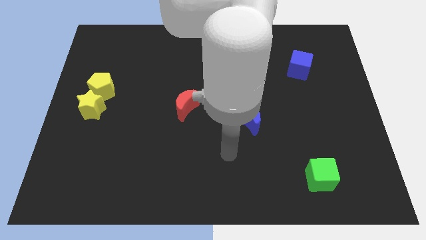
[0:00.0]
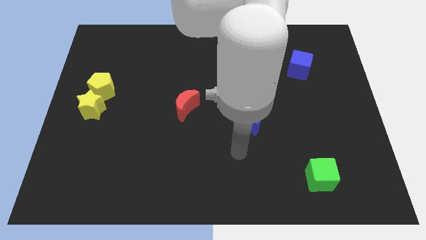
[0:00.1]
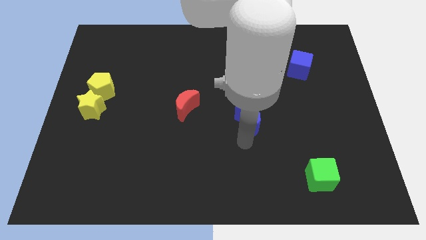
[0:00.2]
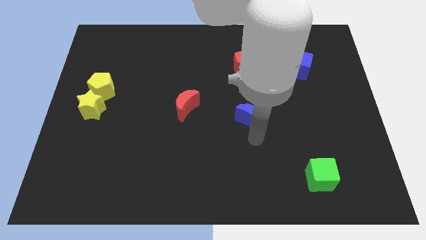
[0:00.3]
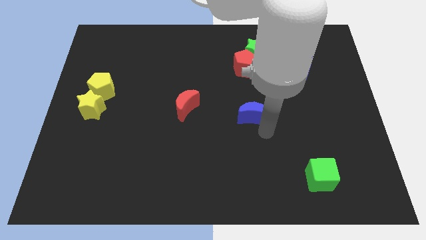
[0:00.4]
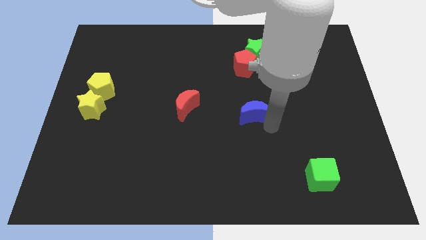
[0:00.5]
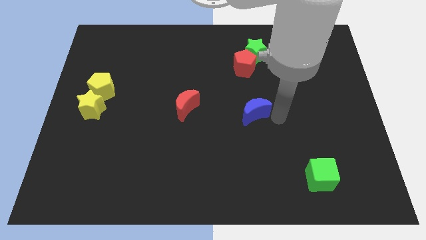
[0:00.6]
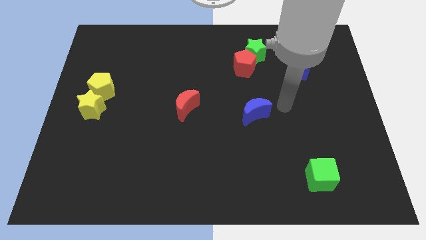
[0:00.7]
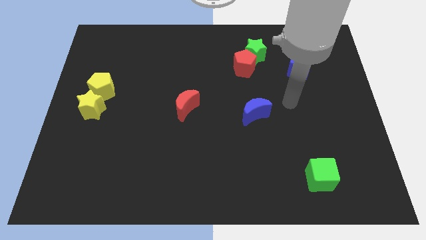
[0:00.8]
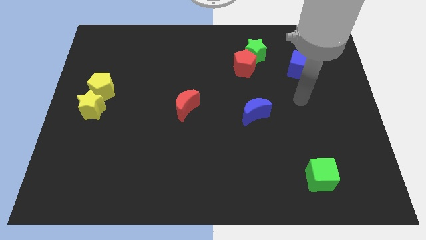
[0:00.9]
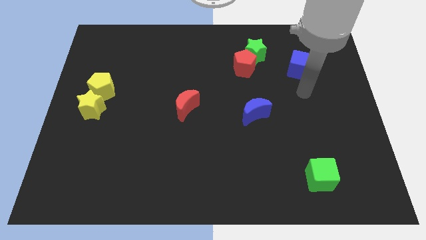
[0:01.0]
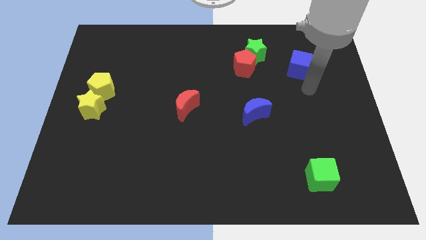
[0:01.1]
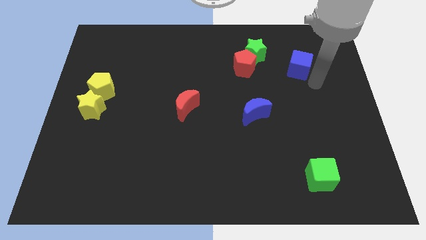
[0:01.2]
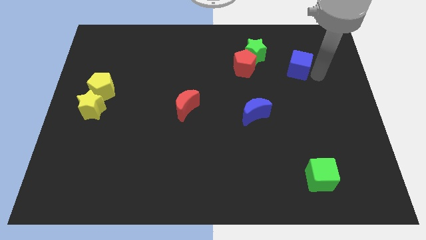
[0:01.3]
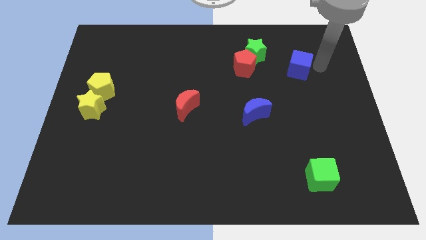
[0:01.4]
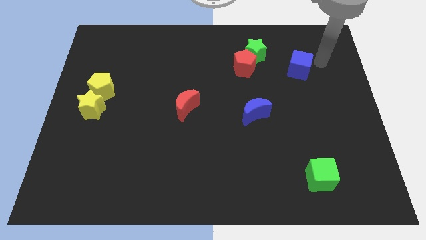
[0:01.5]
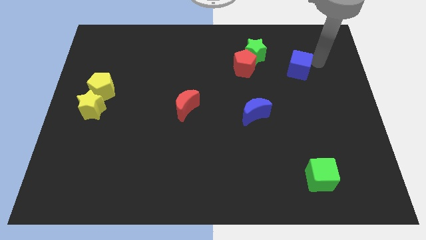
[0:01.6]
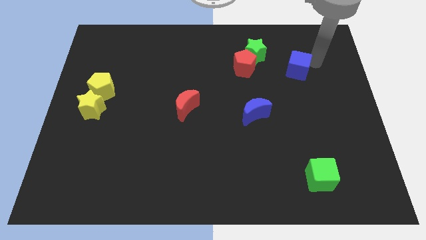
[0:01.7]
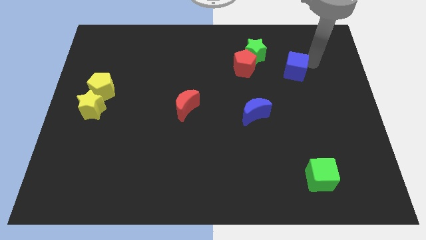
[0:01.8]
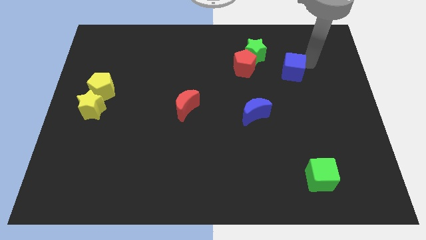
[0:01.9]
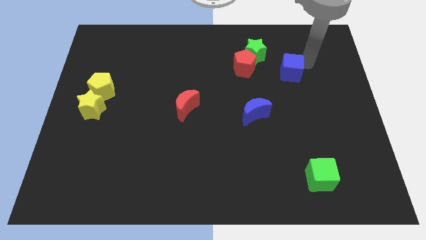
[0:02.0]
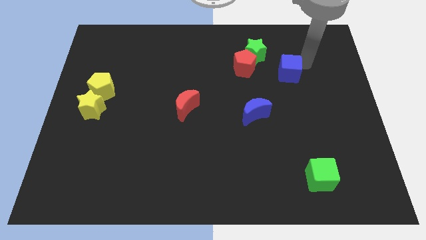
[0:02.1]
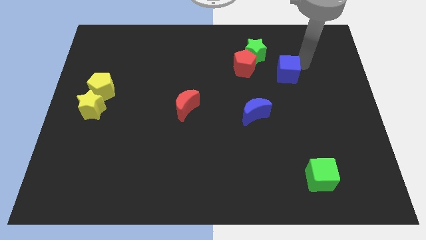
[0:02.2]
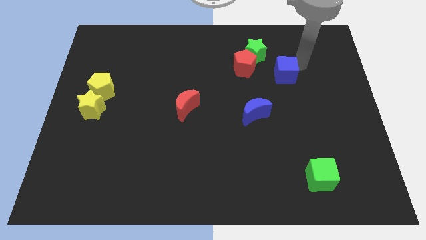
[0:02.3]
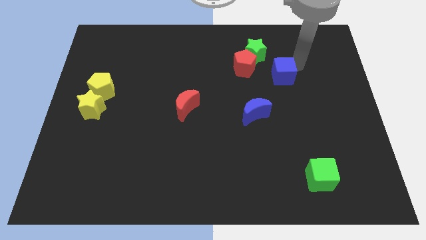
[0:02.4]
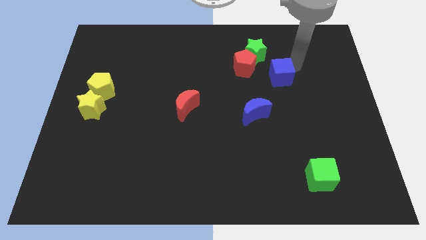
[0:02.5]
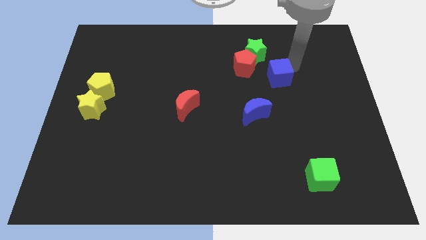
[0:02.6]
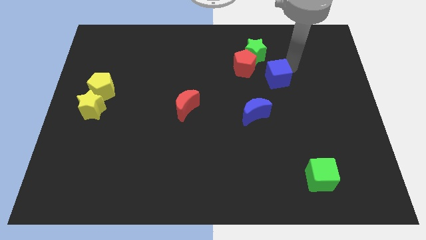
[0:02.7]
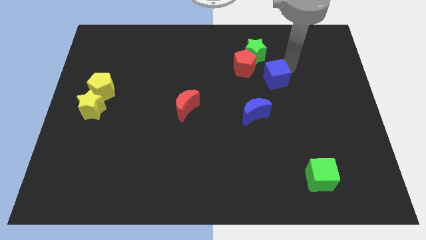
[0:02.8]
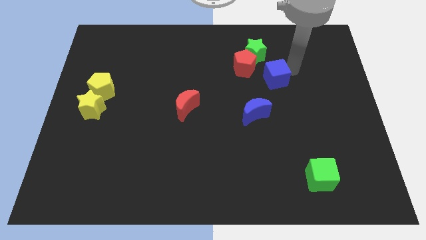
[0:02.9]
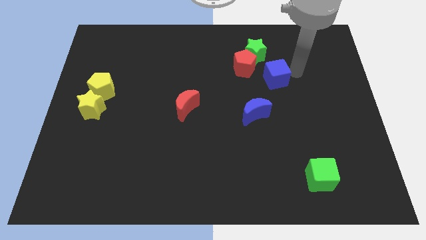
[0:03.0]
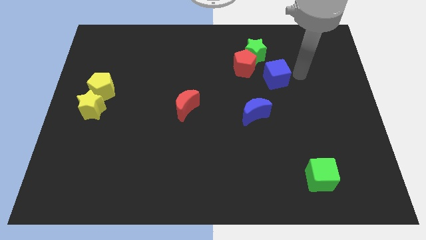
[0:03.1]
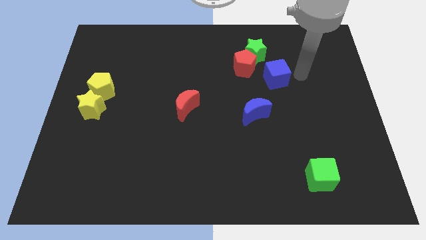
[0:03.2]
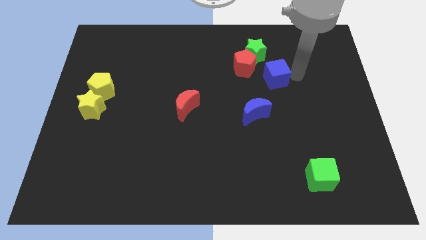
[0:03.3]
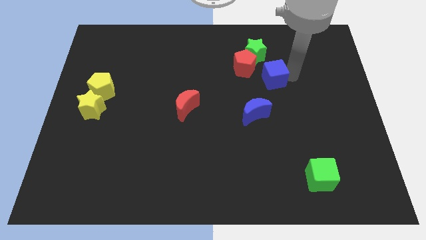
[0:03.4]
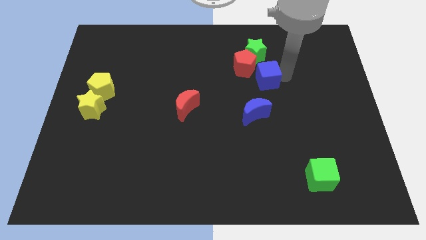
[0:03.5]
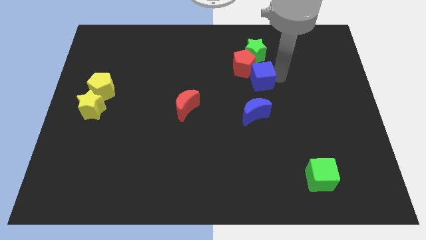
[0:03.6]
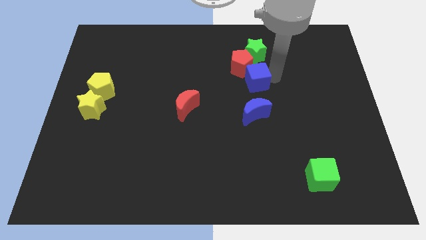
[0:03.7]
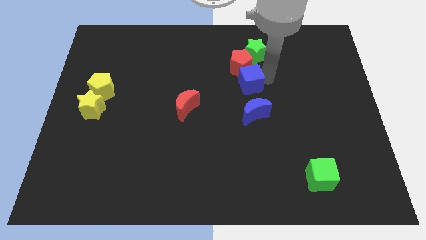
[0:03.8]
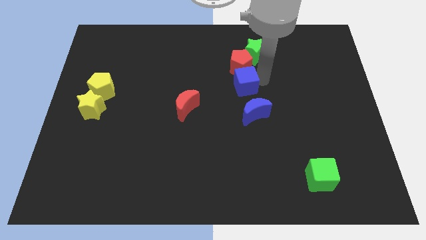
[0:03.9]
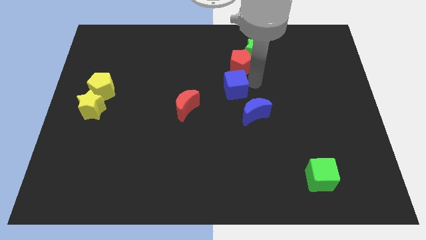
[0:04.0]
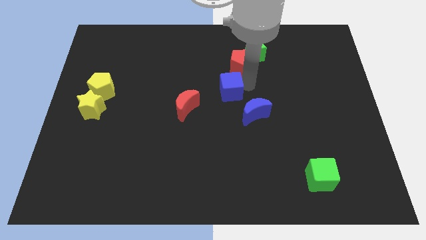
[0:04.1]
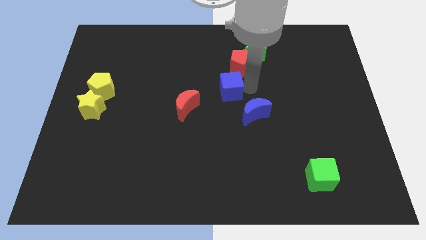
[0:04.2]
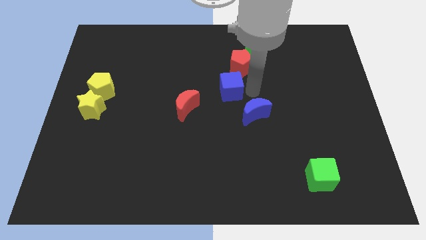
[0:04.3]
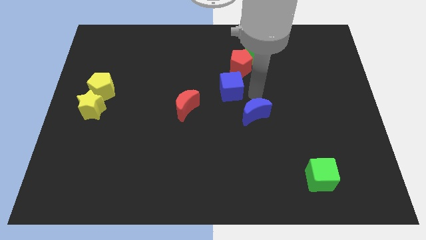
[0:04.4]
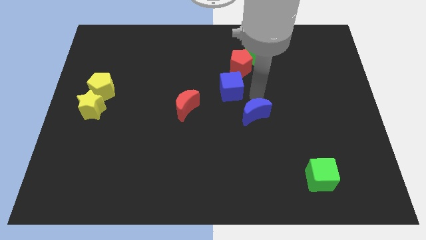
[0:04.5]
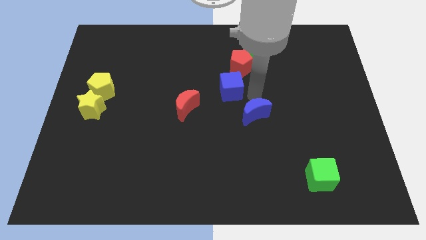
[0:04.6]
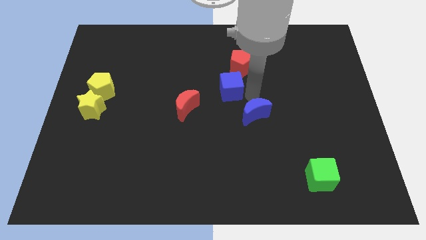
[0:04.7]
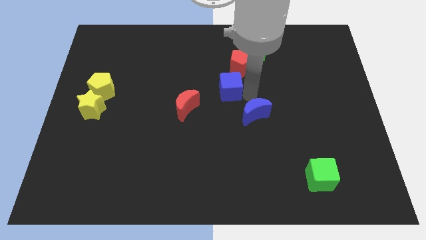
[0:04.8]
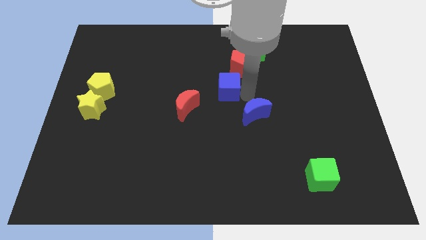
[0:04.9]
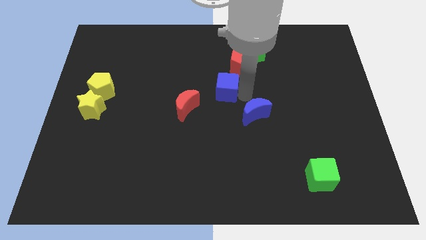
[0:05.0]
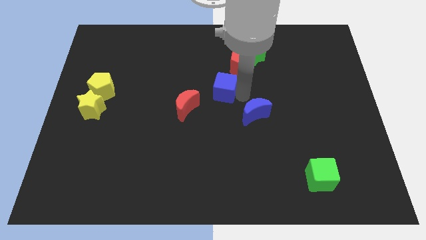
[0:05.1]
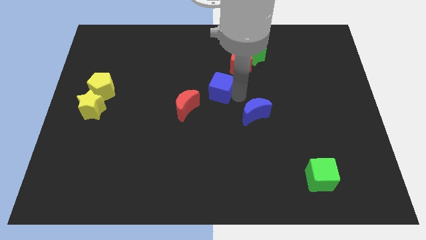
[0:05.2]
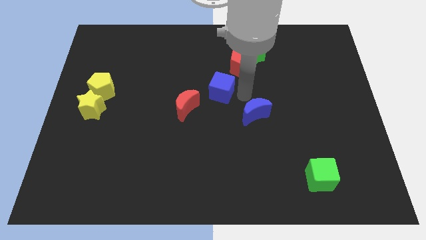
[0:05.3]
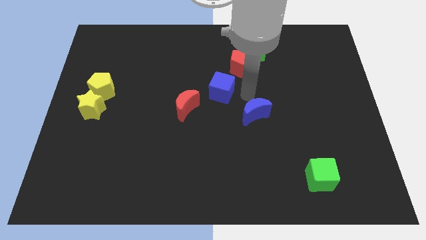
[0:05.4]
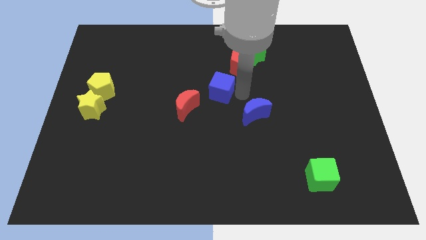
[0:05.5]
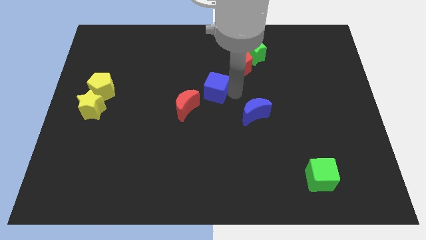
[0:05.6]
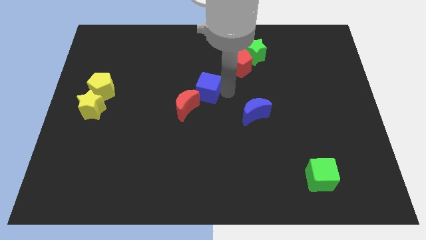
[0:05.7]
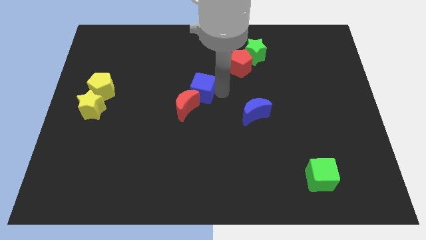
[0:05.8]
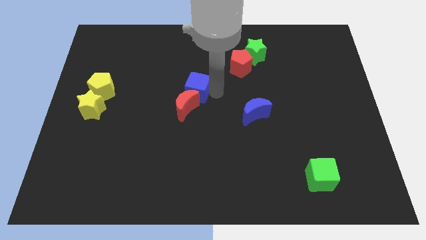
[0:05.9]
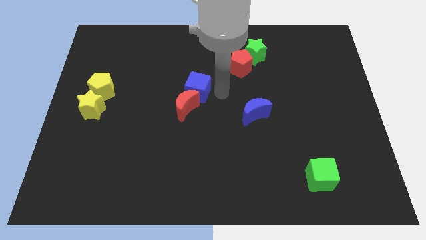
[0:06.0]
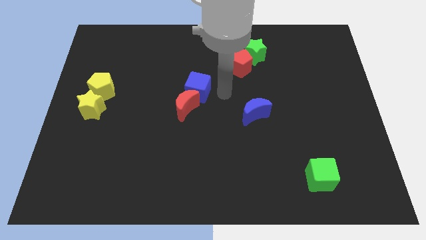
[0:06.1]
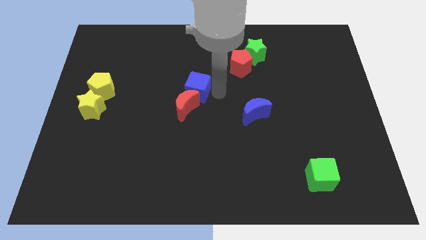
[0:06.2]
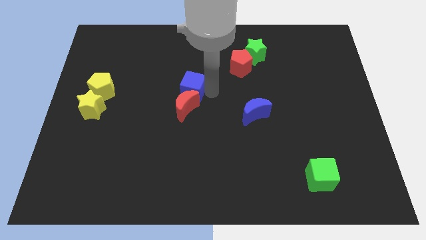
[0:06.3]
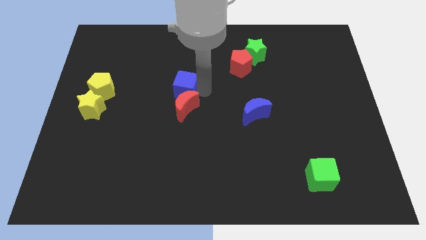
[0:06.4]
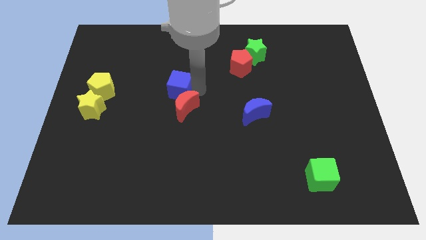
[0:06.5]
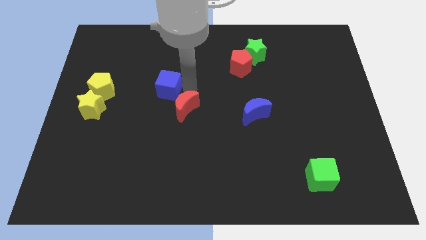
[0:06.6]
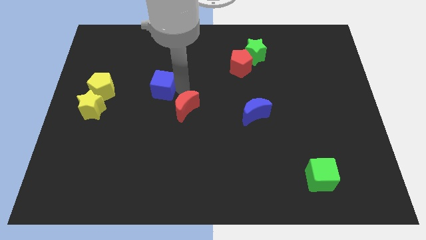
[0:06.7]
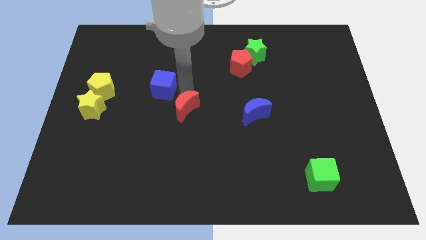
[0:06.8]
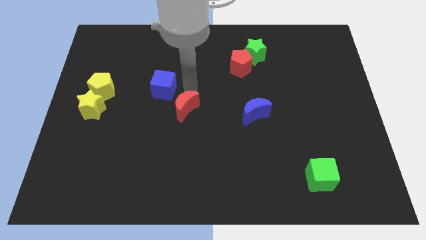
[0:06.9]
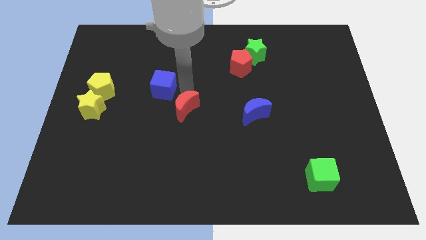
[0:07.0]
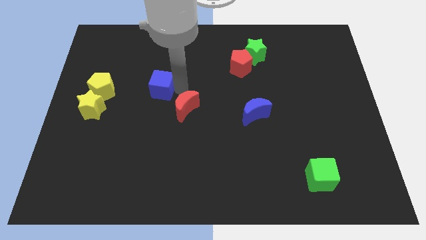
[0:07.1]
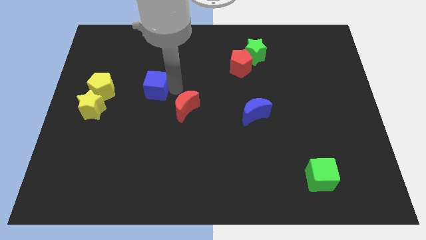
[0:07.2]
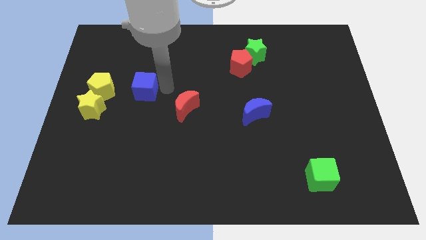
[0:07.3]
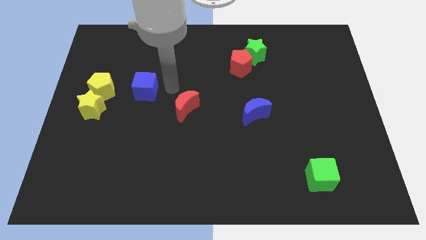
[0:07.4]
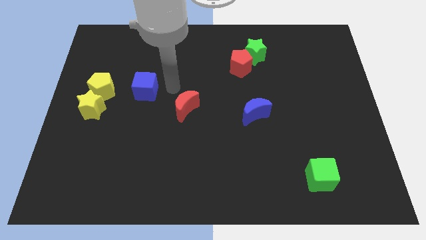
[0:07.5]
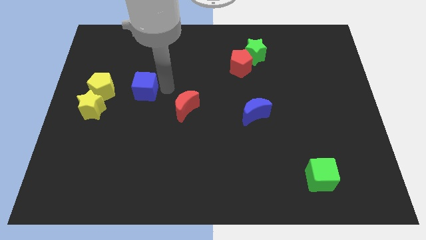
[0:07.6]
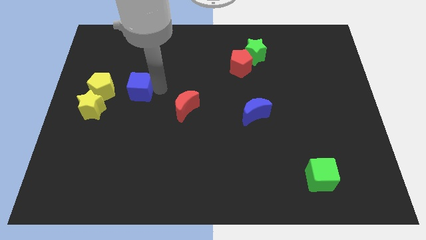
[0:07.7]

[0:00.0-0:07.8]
move the blue cube to the top right side of the yellow star
